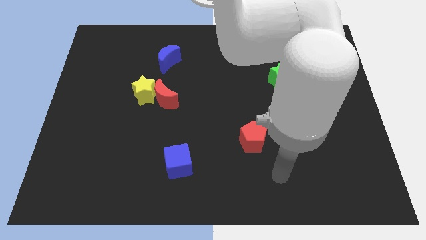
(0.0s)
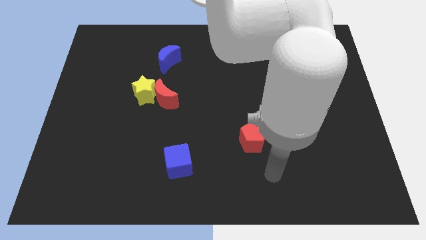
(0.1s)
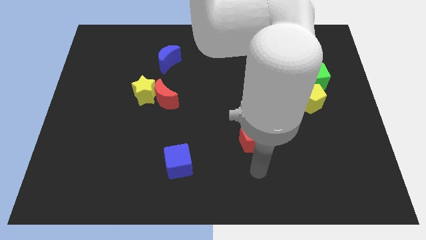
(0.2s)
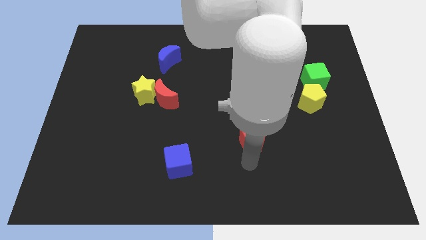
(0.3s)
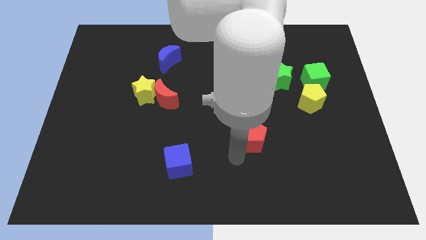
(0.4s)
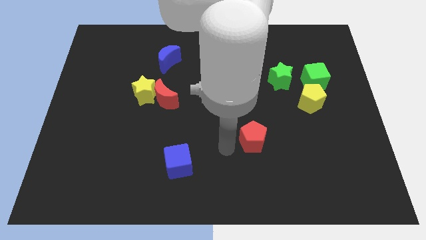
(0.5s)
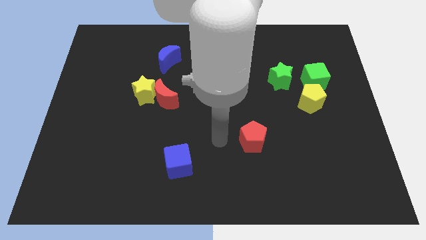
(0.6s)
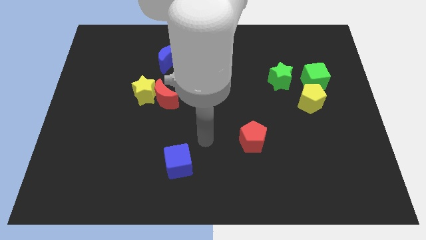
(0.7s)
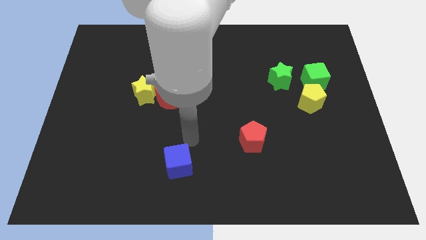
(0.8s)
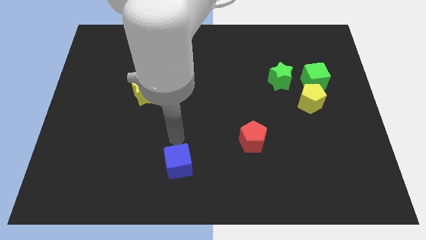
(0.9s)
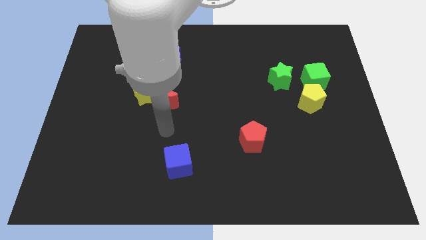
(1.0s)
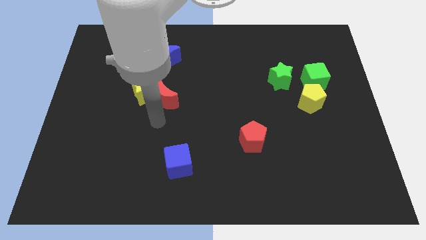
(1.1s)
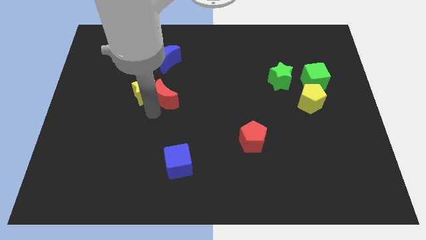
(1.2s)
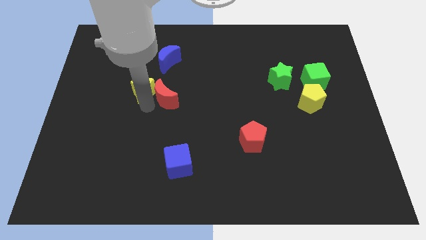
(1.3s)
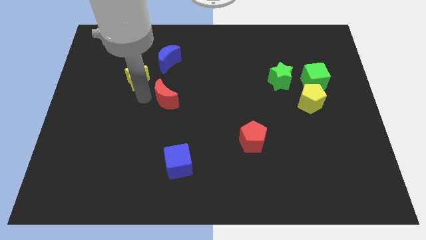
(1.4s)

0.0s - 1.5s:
separate the red moon from the yellow star

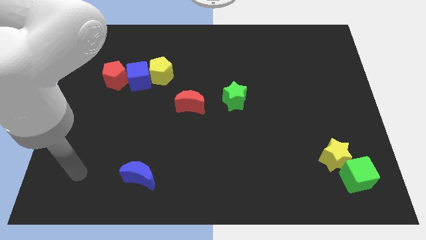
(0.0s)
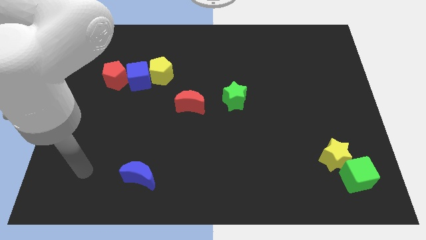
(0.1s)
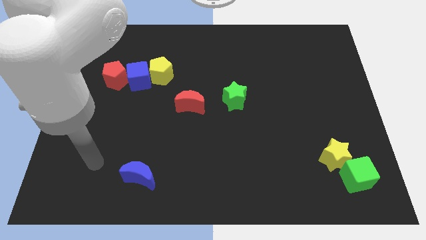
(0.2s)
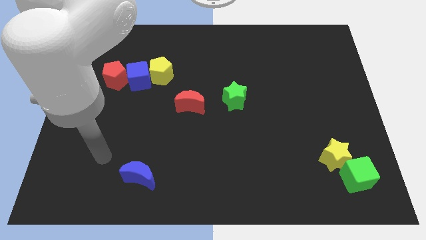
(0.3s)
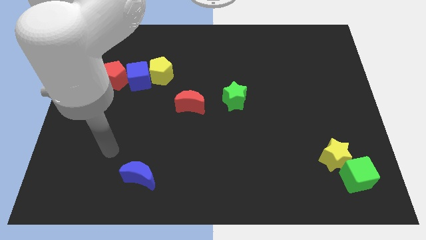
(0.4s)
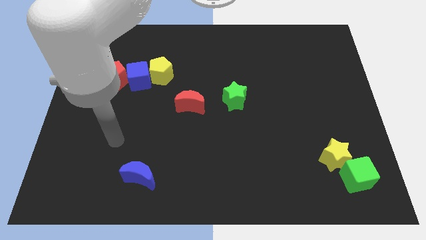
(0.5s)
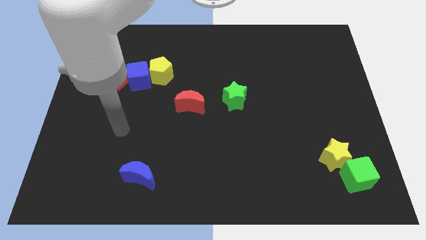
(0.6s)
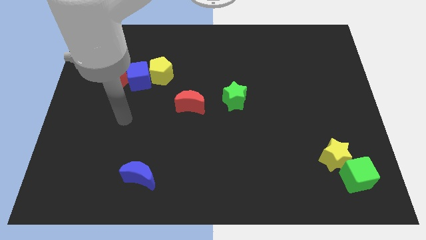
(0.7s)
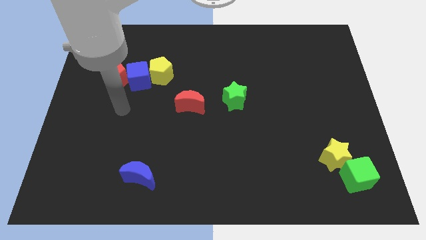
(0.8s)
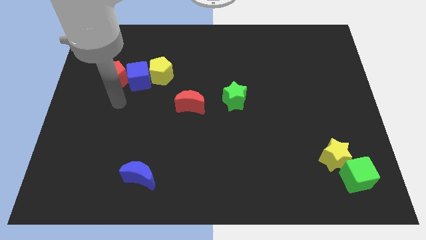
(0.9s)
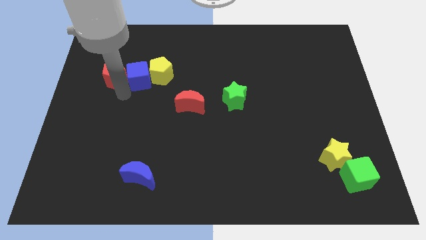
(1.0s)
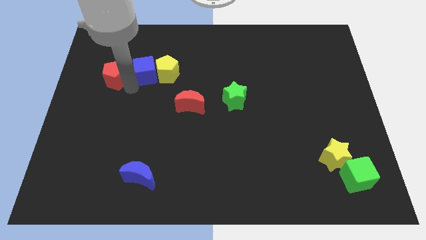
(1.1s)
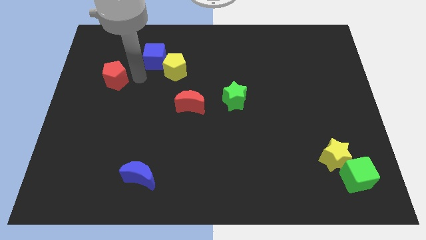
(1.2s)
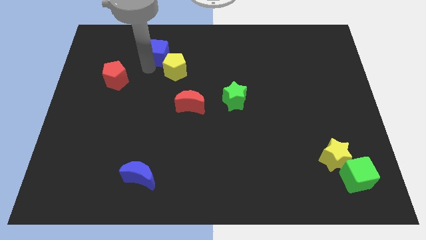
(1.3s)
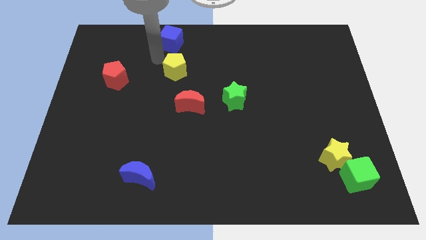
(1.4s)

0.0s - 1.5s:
separate the yellow pentagon from the blue cube

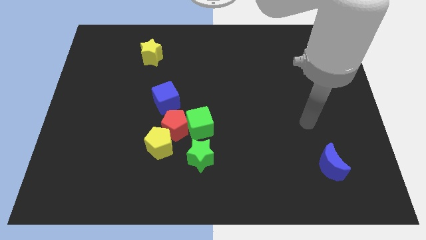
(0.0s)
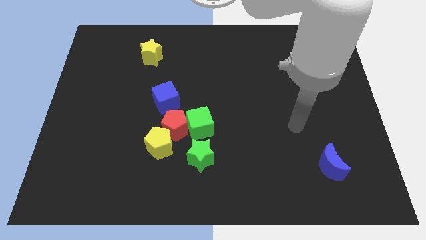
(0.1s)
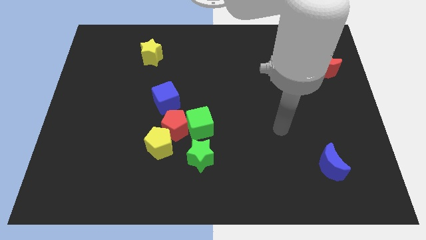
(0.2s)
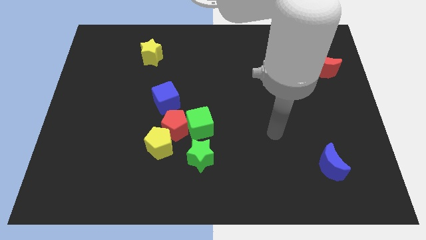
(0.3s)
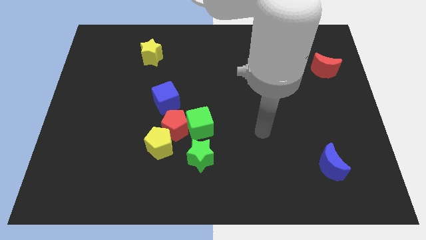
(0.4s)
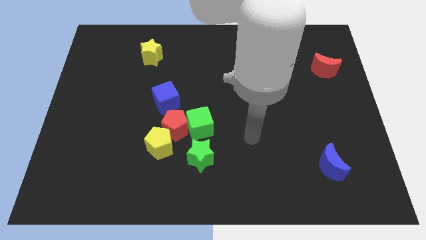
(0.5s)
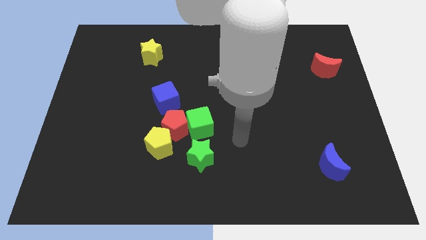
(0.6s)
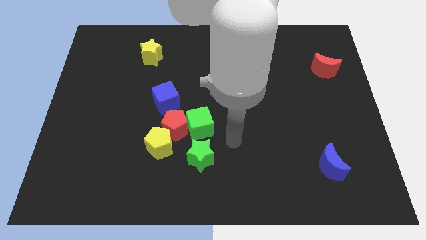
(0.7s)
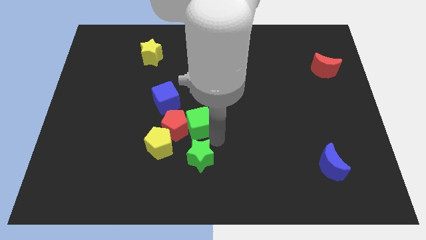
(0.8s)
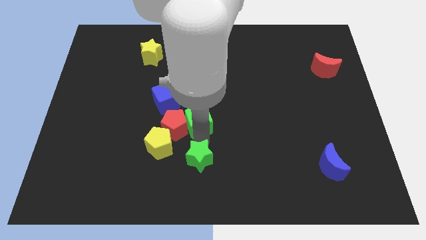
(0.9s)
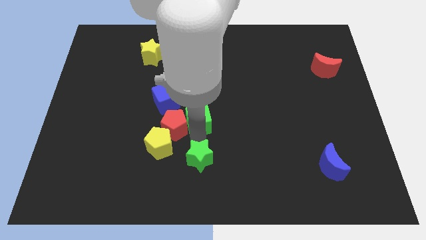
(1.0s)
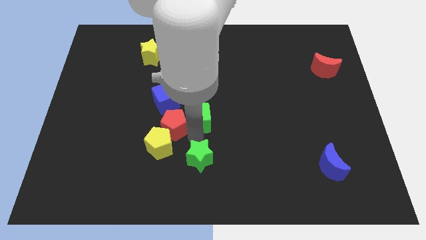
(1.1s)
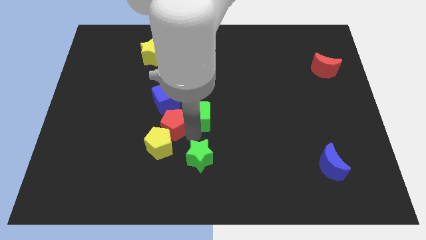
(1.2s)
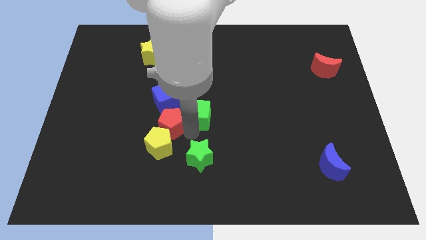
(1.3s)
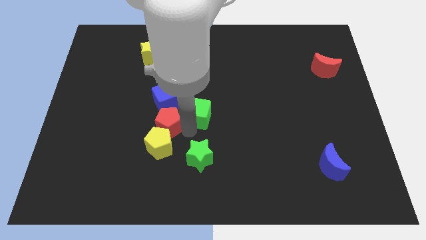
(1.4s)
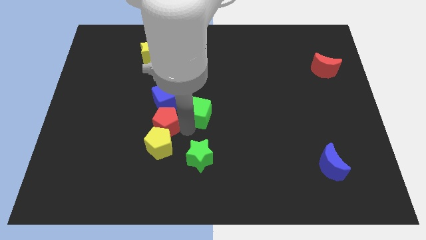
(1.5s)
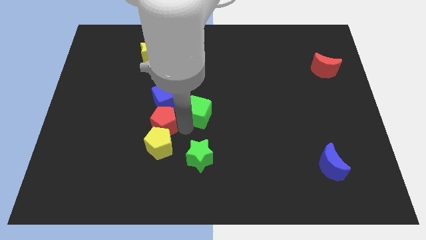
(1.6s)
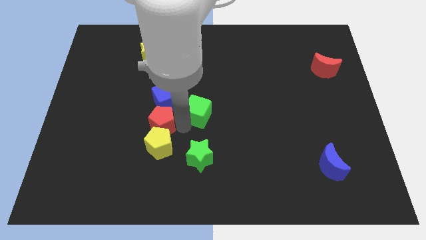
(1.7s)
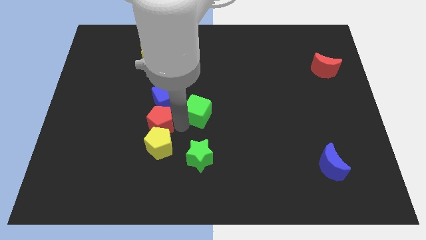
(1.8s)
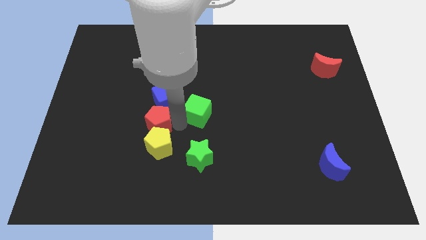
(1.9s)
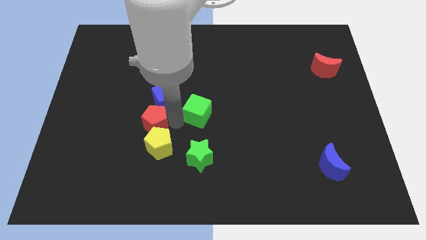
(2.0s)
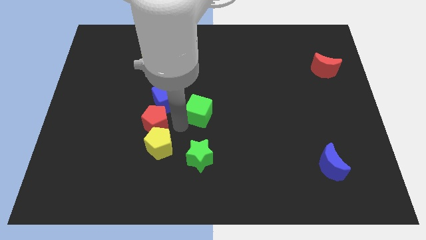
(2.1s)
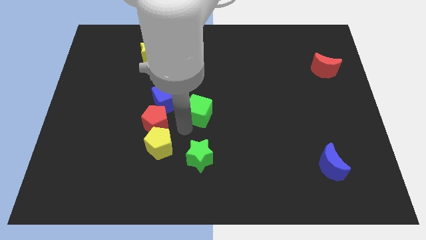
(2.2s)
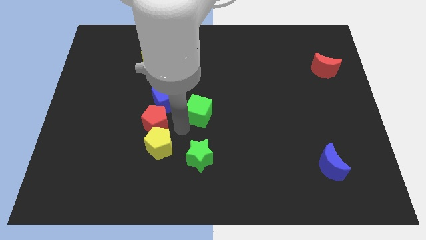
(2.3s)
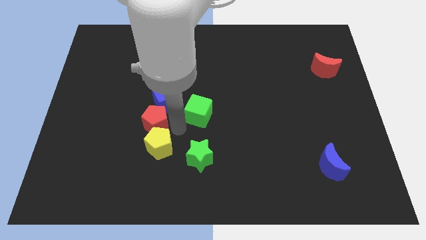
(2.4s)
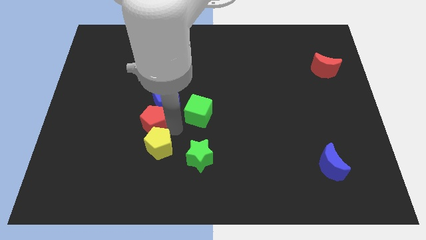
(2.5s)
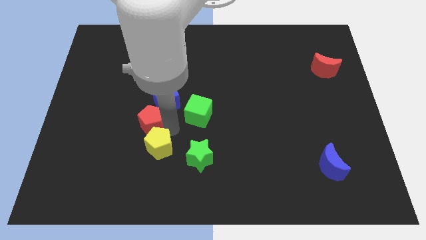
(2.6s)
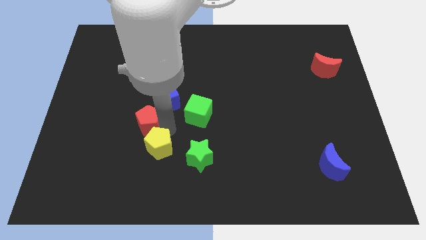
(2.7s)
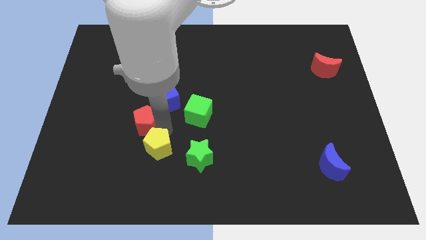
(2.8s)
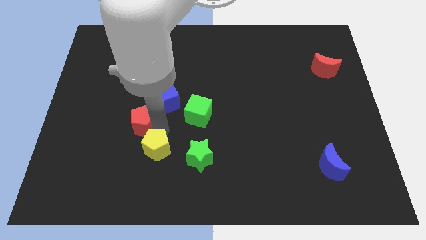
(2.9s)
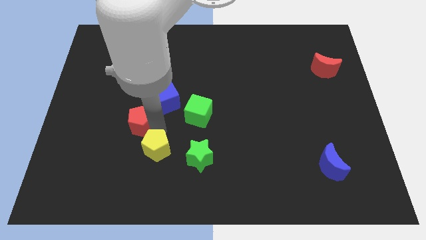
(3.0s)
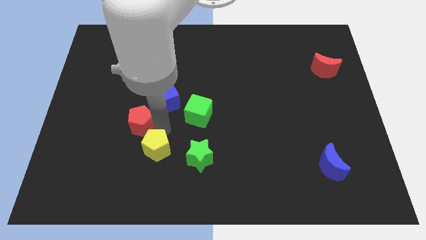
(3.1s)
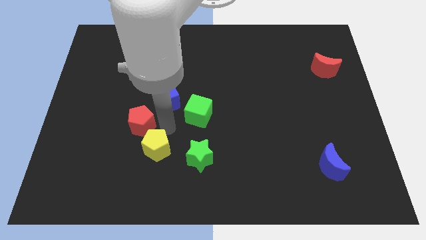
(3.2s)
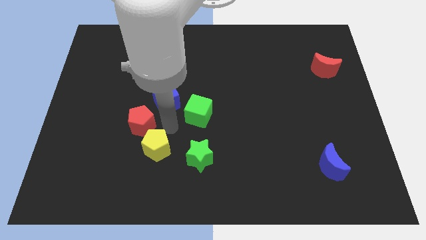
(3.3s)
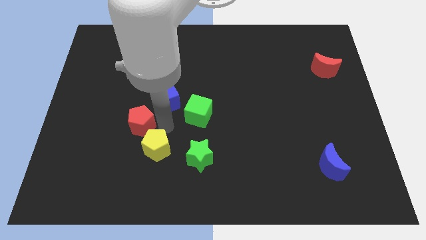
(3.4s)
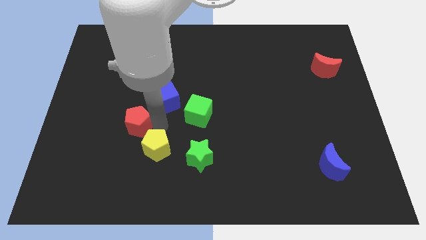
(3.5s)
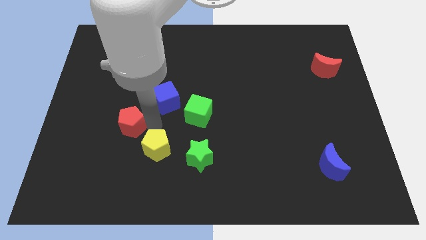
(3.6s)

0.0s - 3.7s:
pull the red pentagon apart from the group

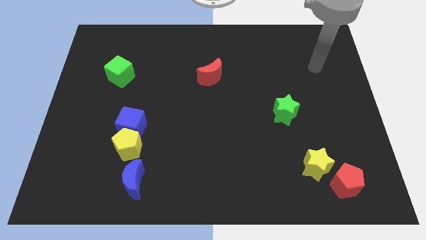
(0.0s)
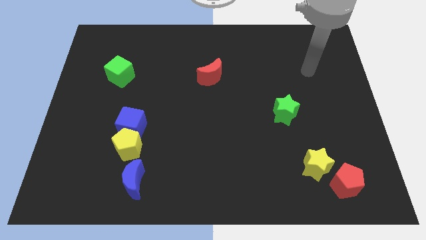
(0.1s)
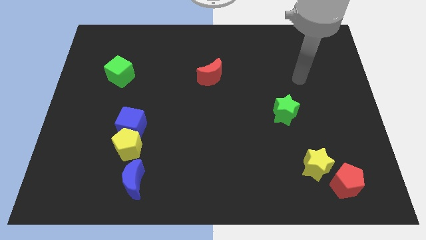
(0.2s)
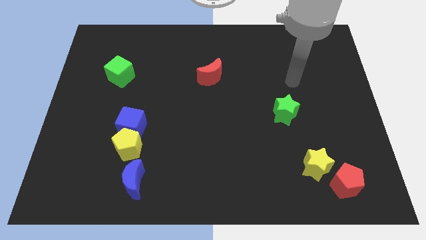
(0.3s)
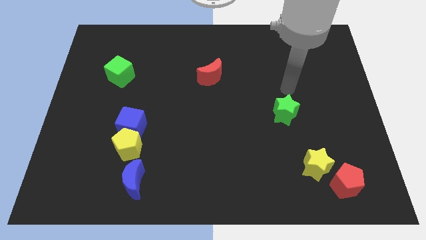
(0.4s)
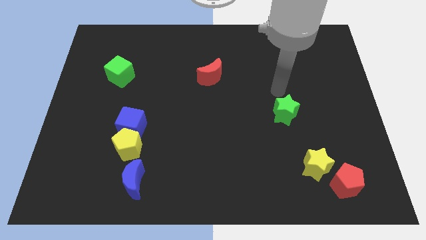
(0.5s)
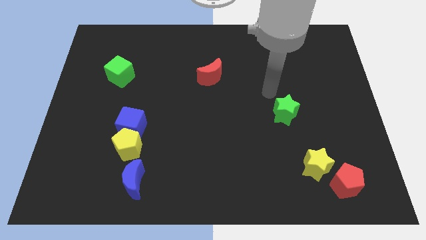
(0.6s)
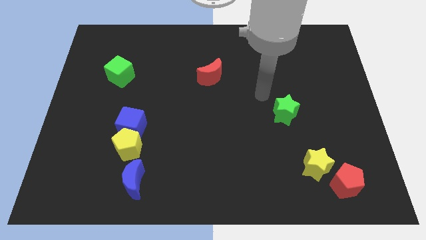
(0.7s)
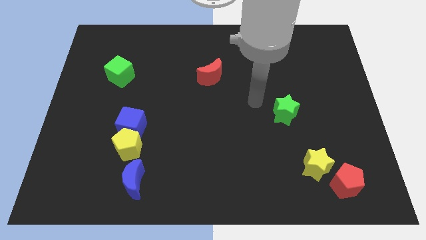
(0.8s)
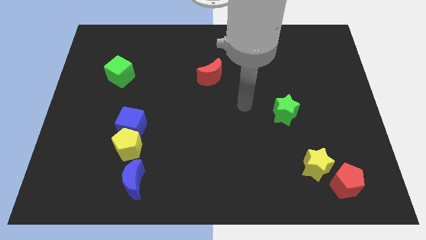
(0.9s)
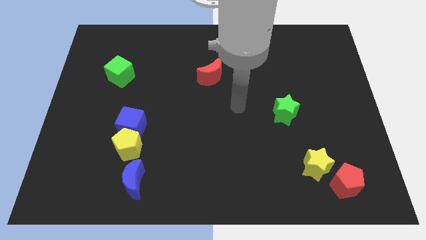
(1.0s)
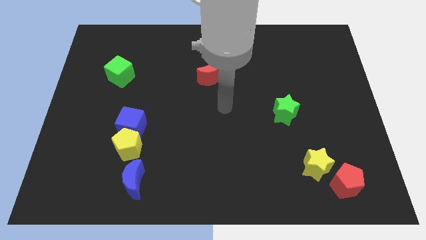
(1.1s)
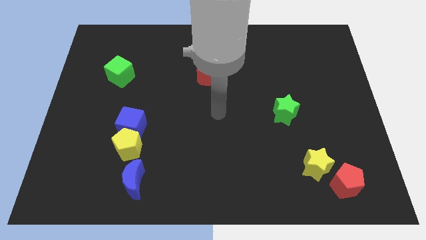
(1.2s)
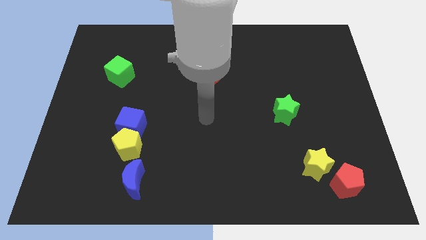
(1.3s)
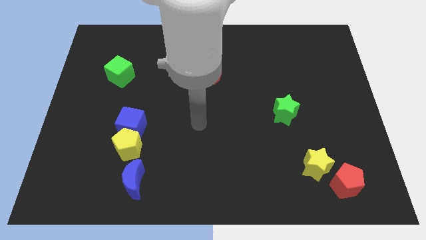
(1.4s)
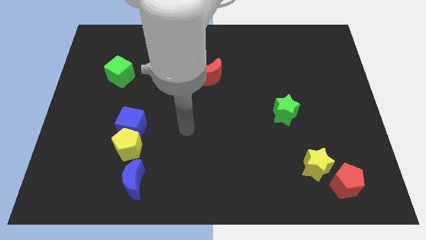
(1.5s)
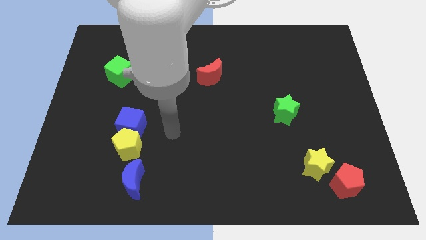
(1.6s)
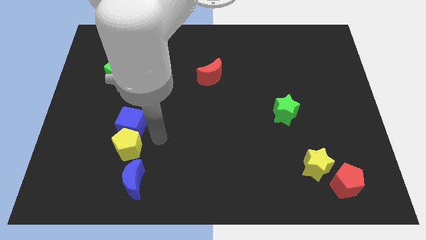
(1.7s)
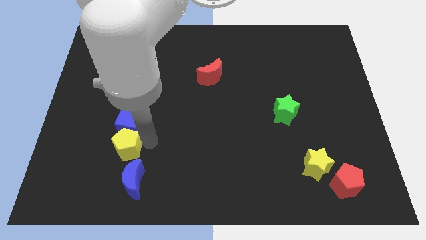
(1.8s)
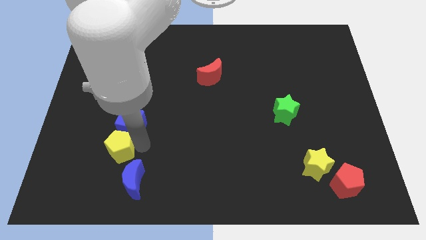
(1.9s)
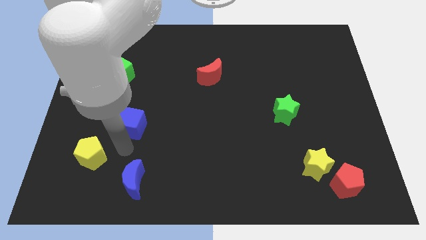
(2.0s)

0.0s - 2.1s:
move the blue cube away from the yellow pentagon

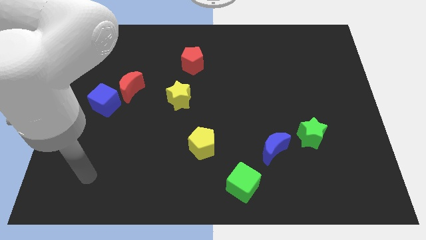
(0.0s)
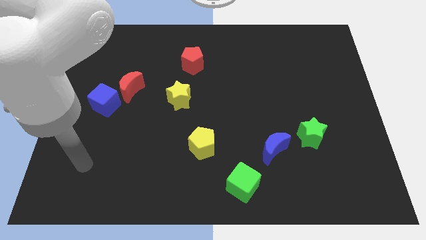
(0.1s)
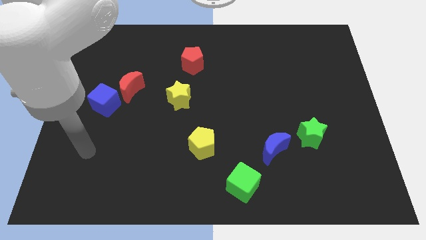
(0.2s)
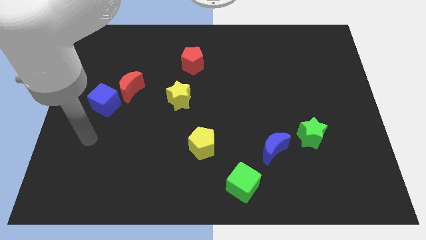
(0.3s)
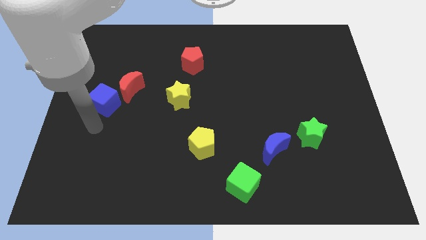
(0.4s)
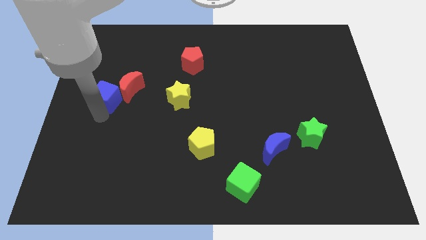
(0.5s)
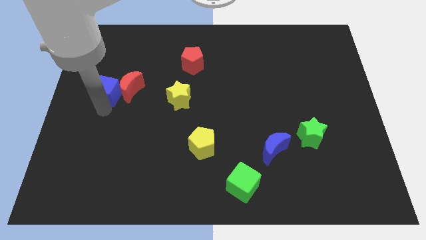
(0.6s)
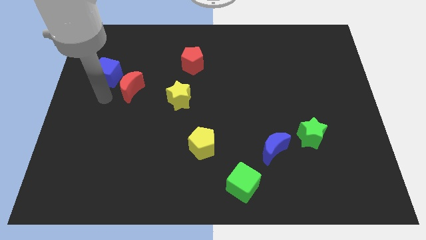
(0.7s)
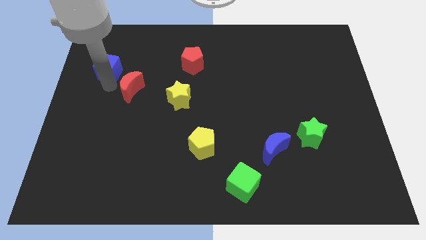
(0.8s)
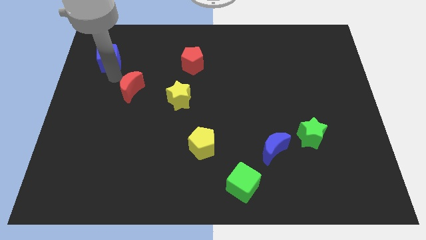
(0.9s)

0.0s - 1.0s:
move the red moon away from the blue cube
